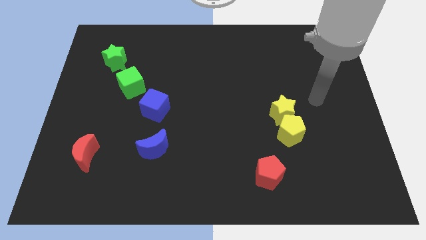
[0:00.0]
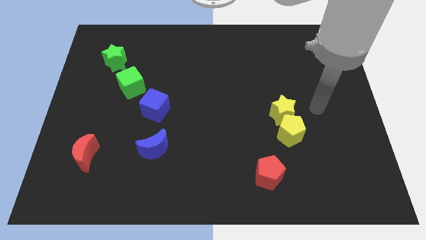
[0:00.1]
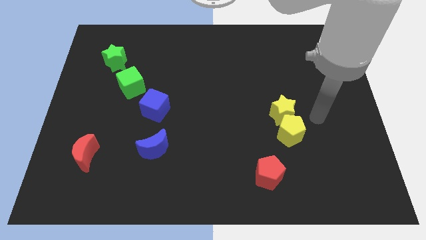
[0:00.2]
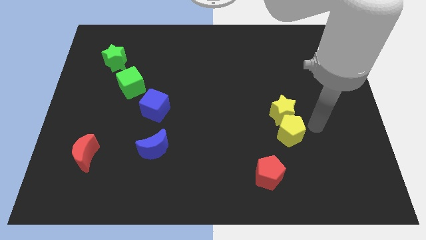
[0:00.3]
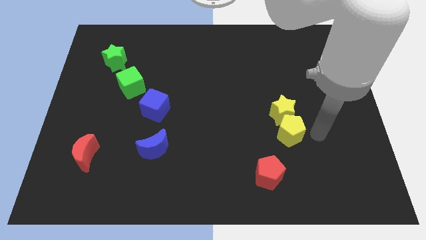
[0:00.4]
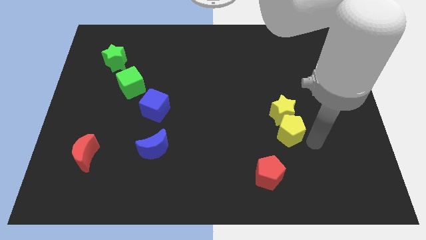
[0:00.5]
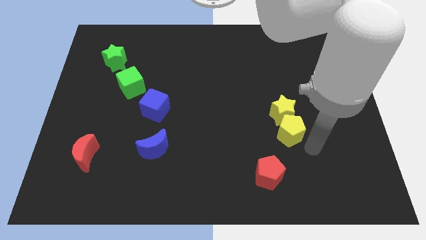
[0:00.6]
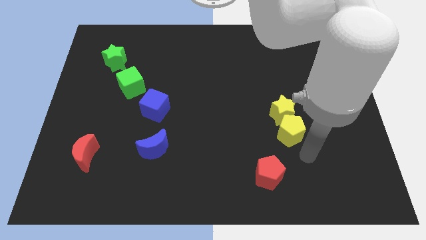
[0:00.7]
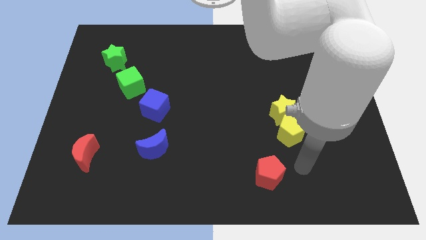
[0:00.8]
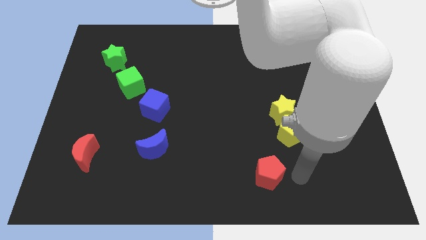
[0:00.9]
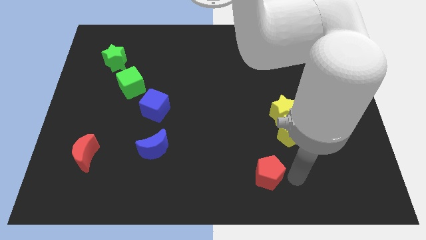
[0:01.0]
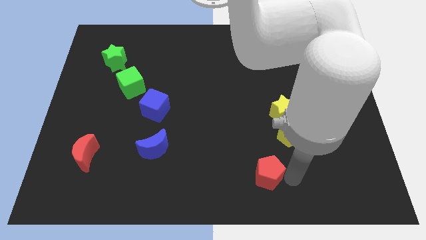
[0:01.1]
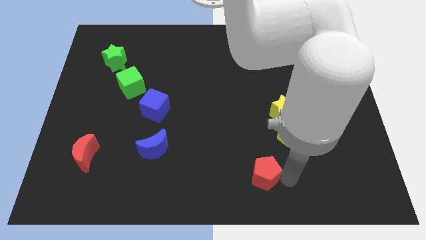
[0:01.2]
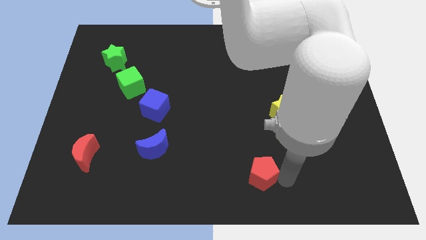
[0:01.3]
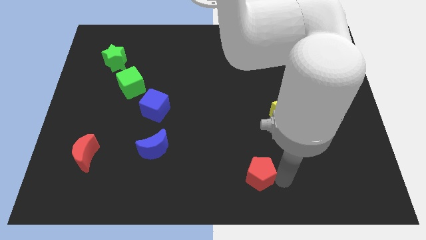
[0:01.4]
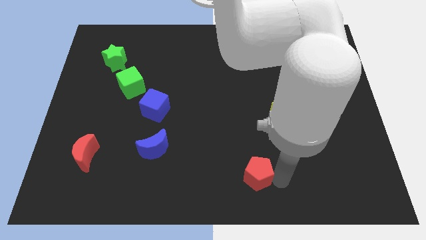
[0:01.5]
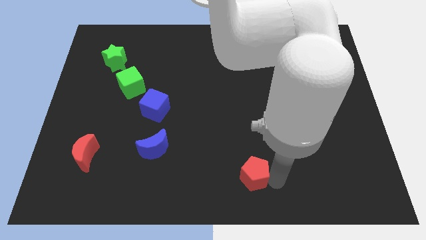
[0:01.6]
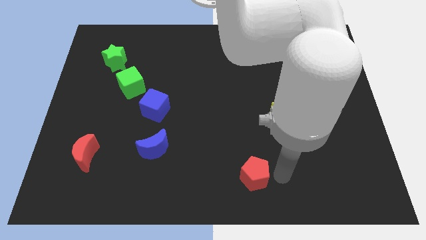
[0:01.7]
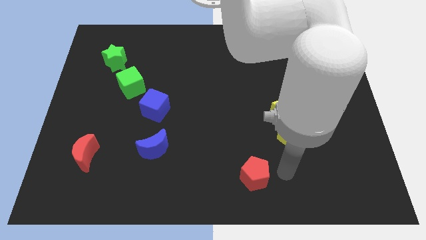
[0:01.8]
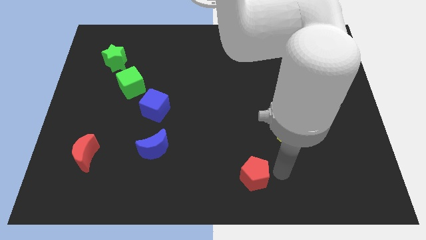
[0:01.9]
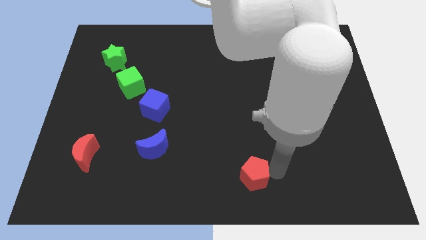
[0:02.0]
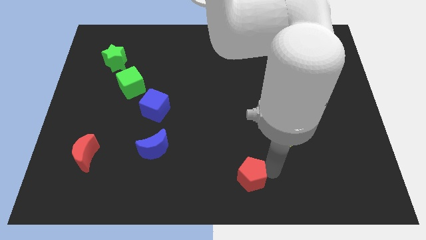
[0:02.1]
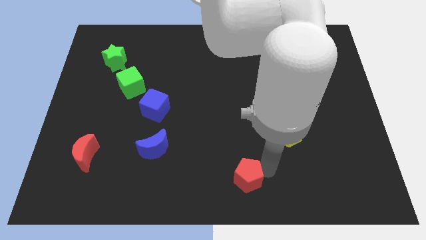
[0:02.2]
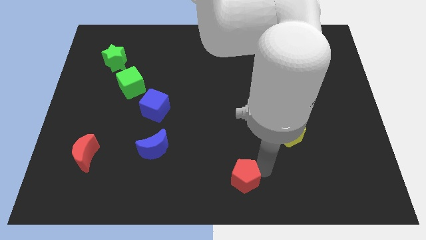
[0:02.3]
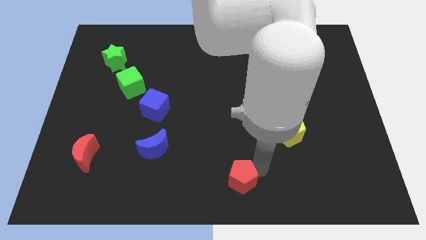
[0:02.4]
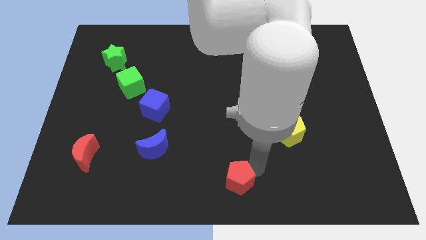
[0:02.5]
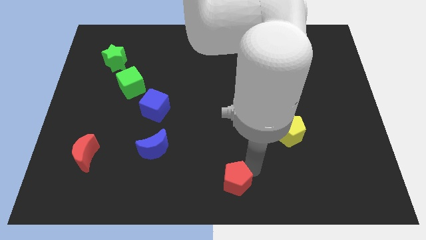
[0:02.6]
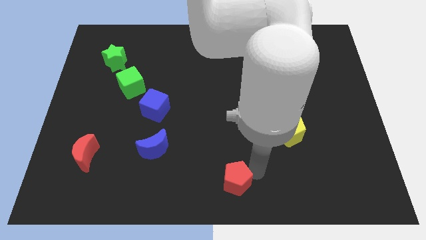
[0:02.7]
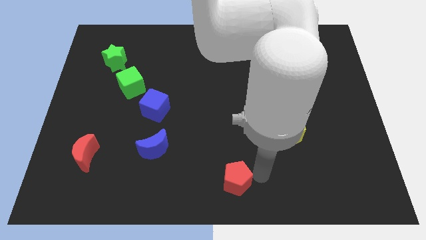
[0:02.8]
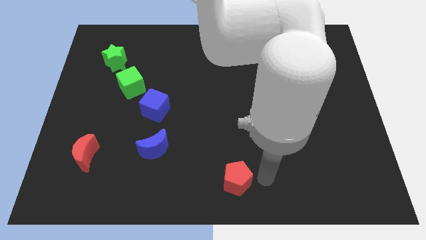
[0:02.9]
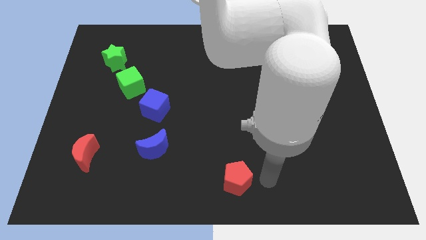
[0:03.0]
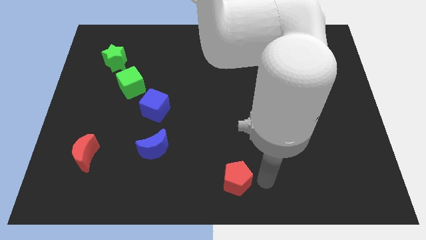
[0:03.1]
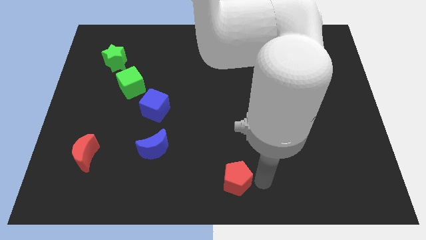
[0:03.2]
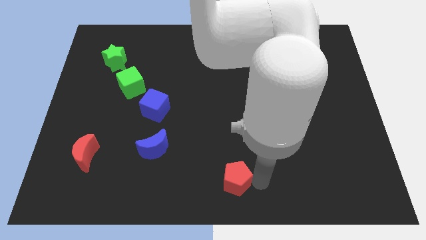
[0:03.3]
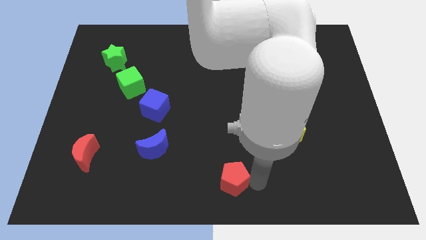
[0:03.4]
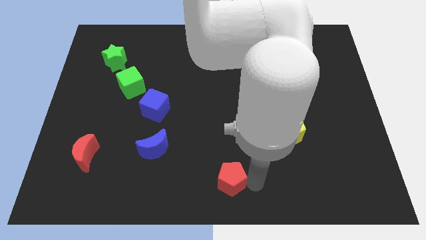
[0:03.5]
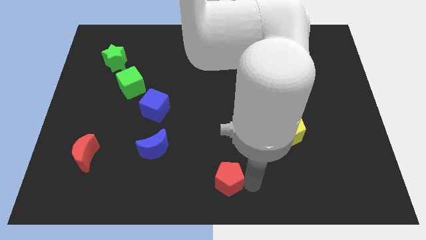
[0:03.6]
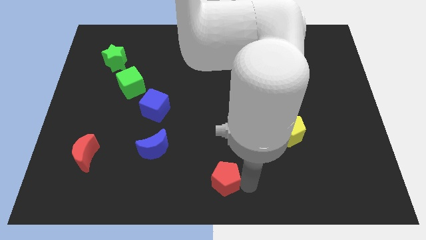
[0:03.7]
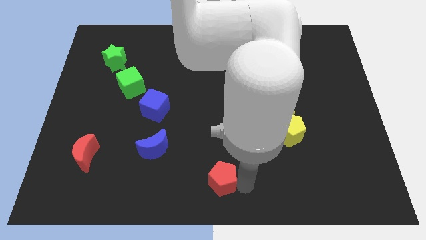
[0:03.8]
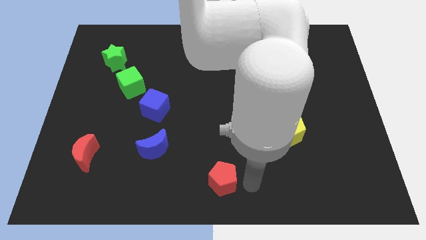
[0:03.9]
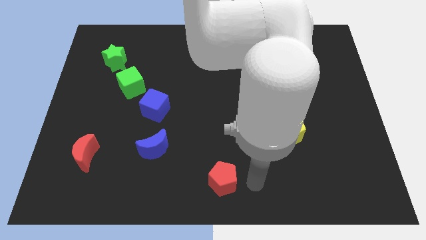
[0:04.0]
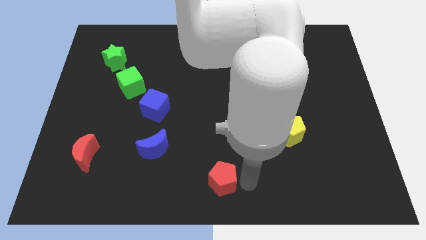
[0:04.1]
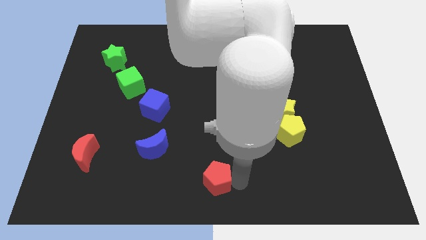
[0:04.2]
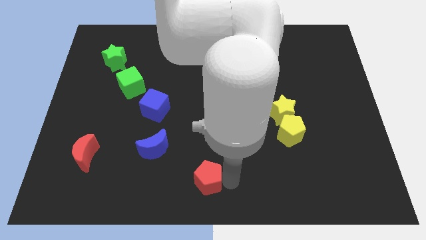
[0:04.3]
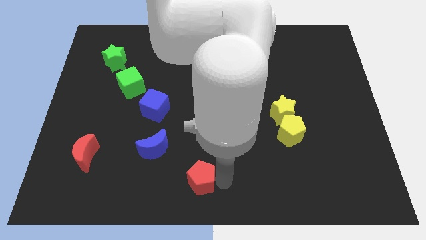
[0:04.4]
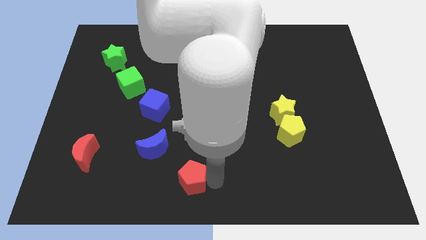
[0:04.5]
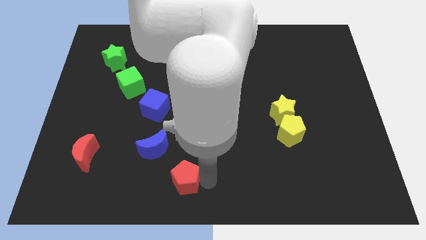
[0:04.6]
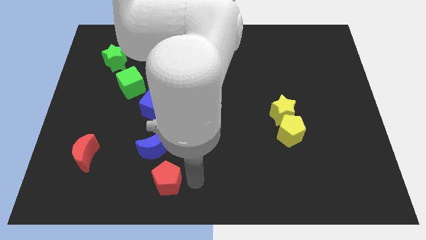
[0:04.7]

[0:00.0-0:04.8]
push the red pentagon left

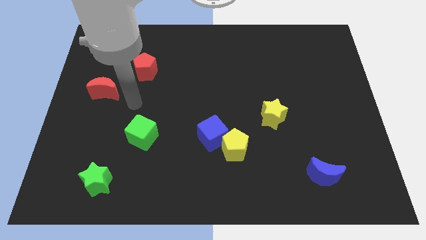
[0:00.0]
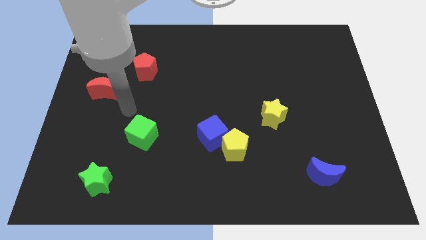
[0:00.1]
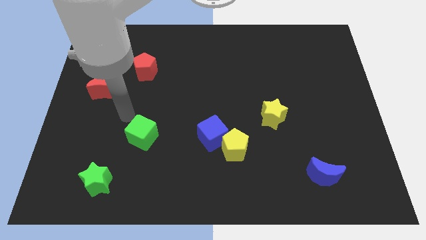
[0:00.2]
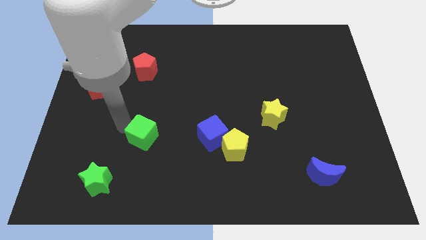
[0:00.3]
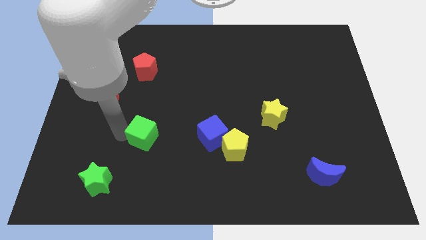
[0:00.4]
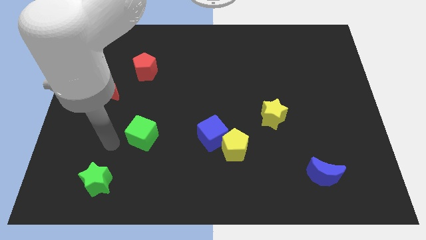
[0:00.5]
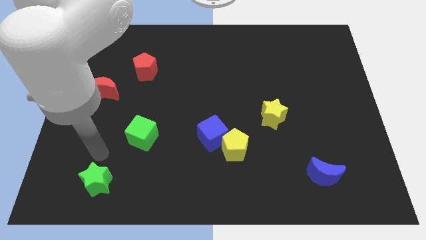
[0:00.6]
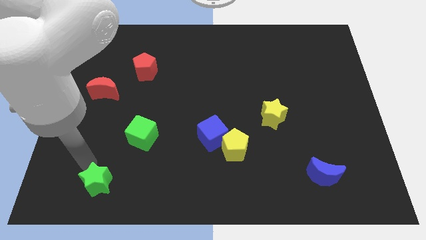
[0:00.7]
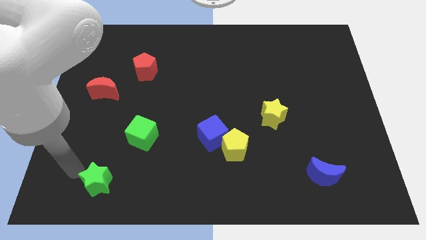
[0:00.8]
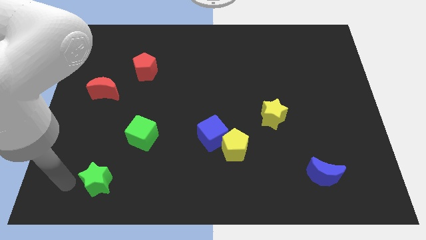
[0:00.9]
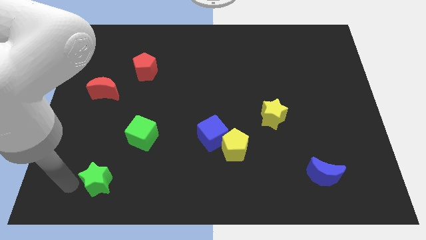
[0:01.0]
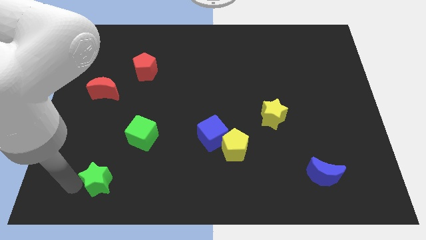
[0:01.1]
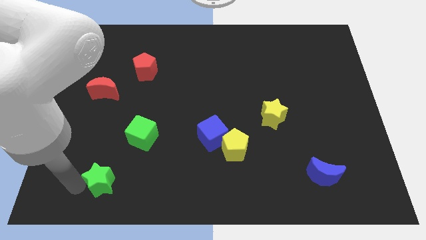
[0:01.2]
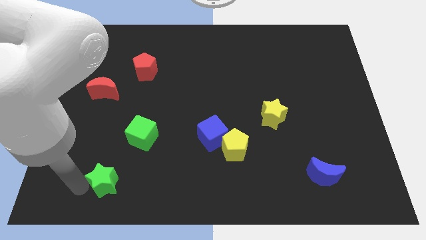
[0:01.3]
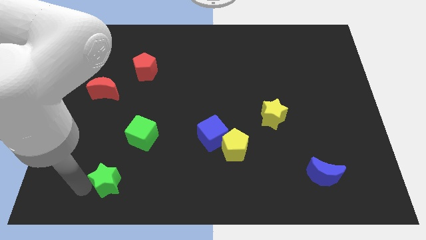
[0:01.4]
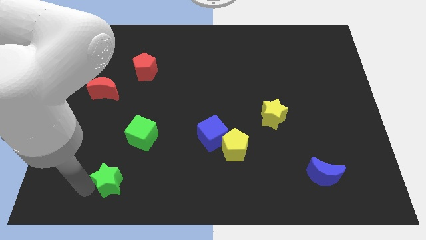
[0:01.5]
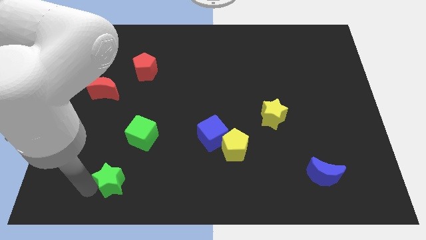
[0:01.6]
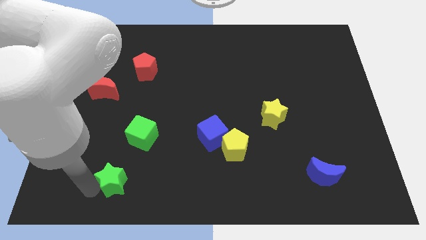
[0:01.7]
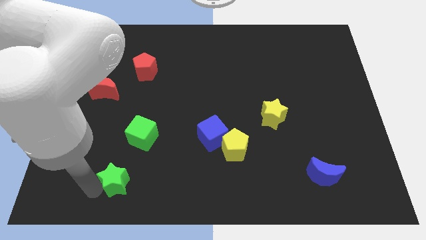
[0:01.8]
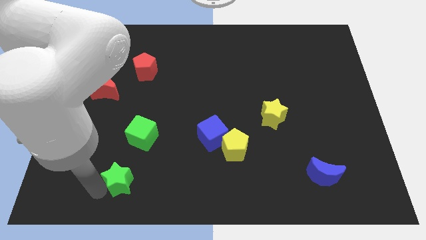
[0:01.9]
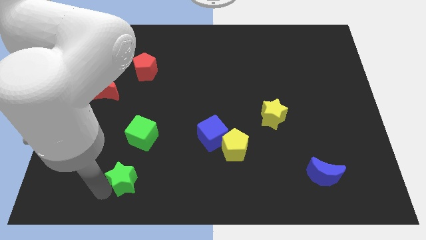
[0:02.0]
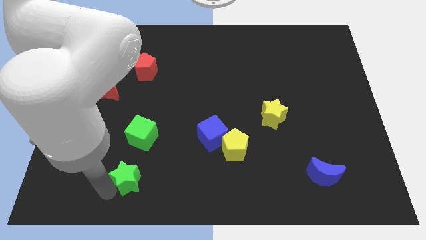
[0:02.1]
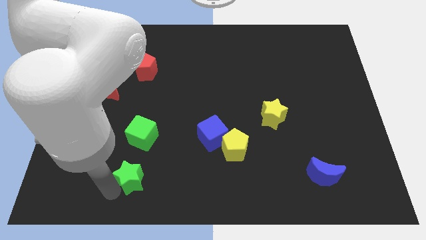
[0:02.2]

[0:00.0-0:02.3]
slightly slide the green star to the right

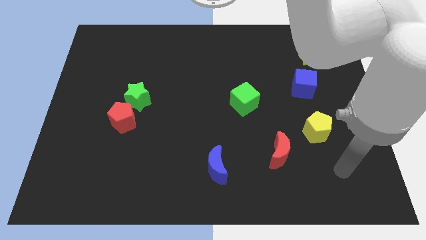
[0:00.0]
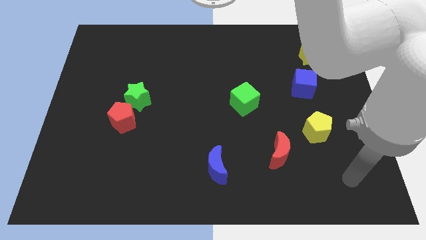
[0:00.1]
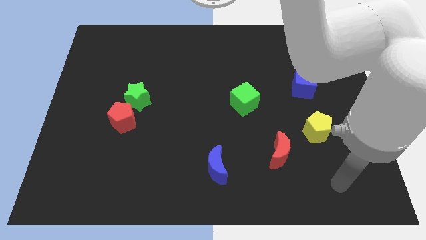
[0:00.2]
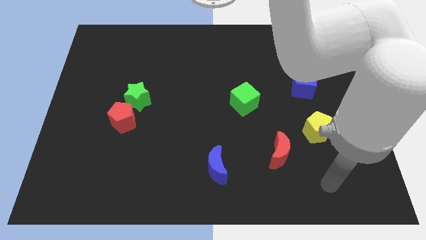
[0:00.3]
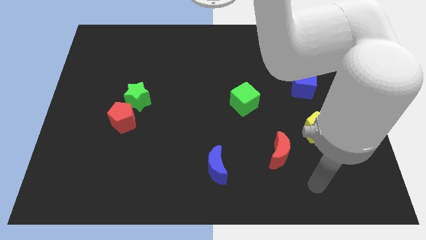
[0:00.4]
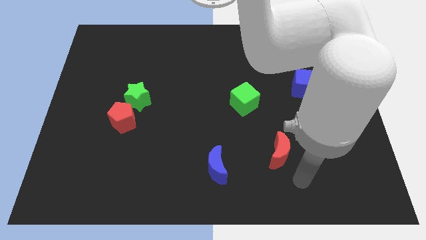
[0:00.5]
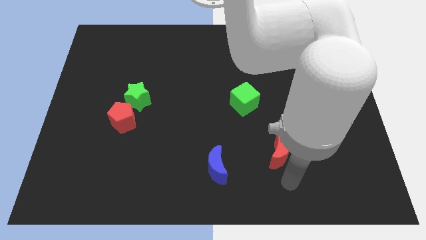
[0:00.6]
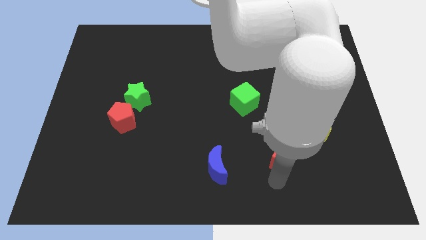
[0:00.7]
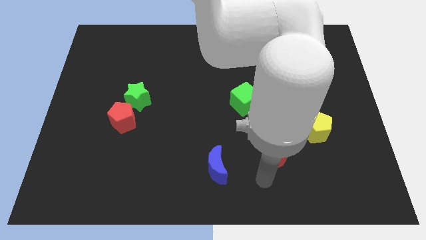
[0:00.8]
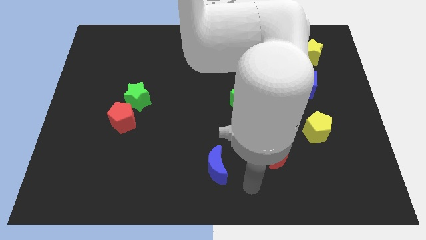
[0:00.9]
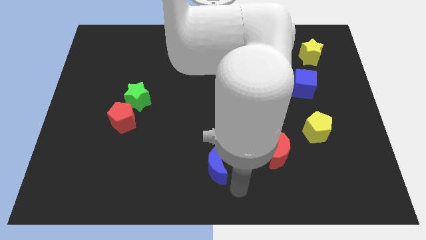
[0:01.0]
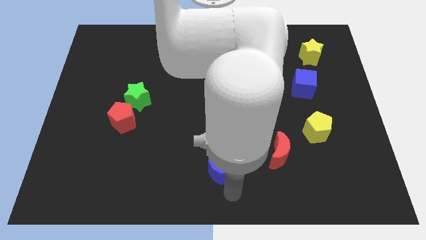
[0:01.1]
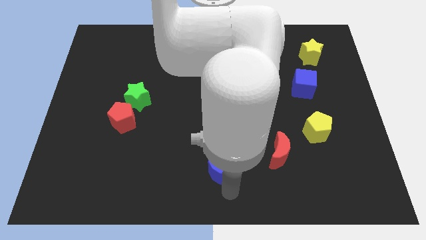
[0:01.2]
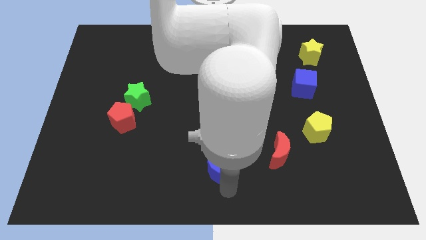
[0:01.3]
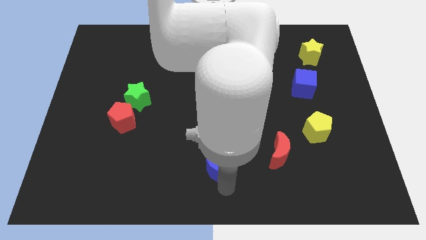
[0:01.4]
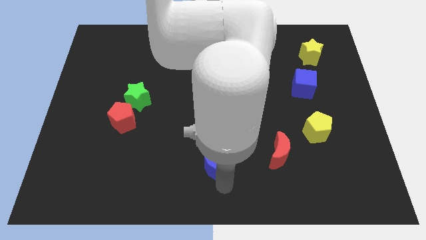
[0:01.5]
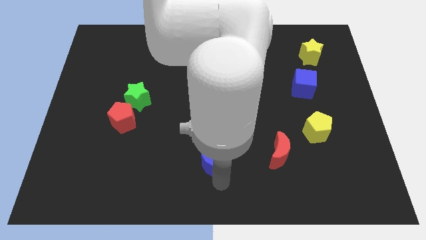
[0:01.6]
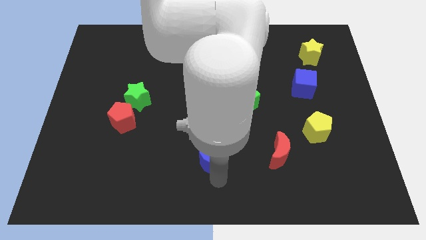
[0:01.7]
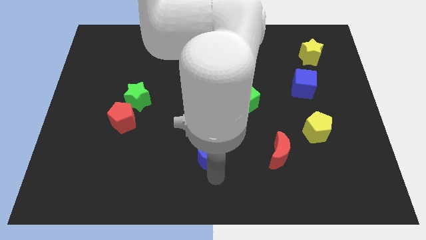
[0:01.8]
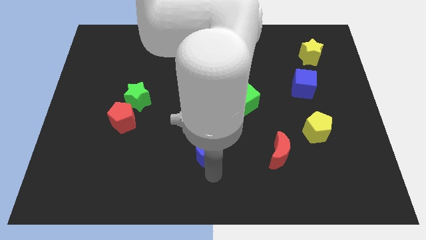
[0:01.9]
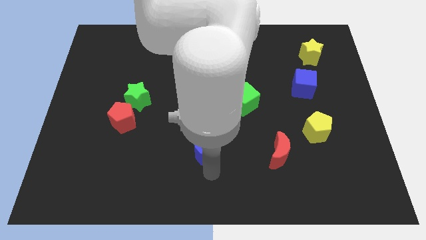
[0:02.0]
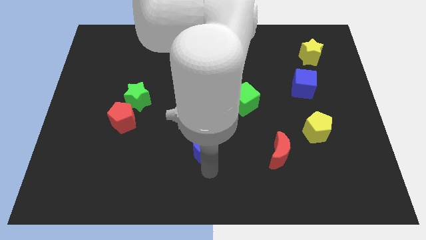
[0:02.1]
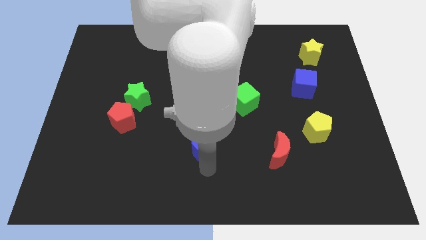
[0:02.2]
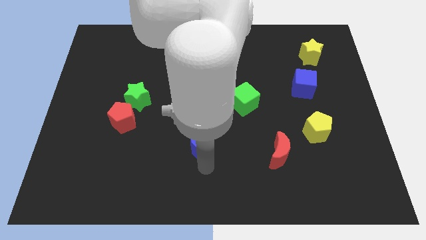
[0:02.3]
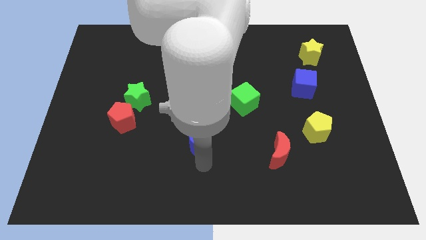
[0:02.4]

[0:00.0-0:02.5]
slightly slide the blue moon diagonally up and left
